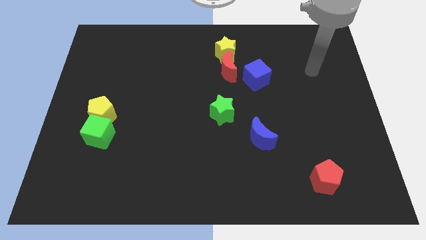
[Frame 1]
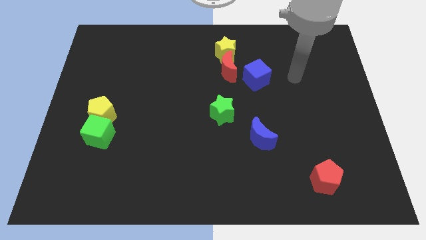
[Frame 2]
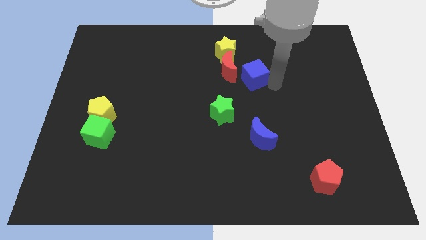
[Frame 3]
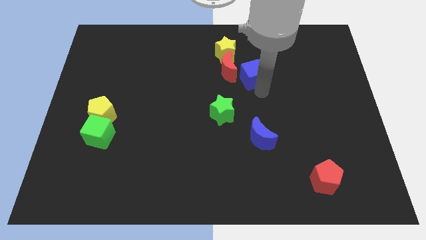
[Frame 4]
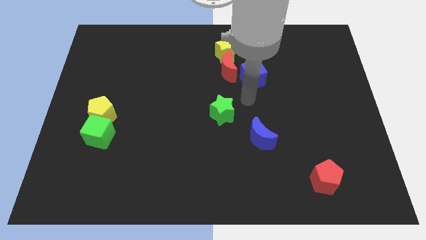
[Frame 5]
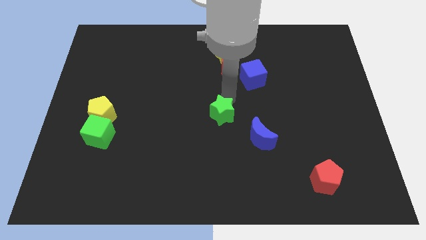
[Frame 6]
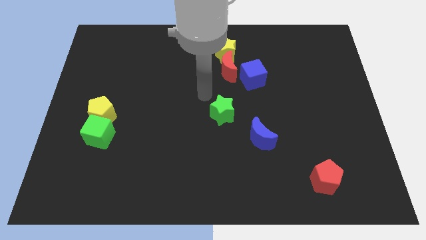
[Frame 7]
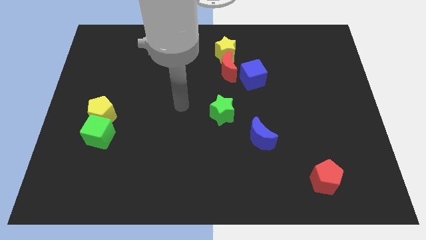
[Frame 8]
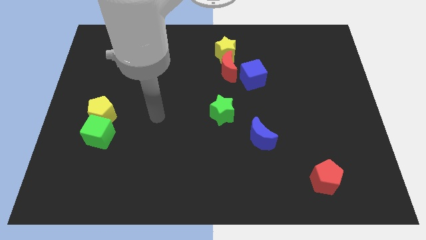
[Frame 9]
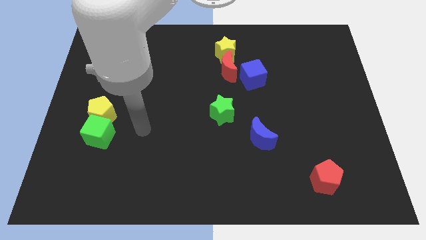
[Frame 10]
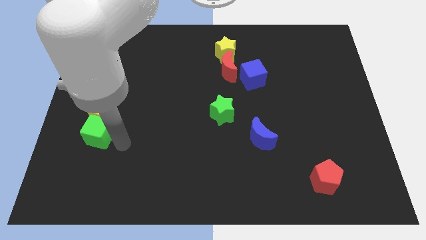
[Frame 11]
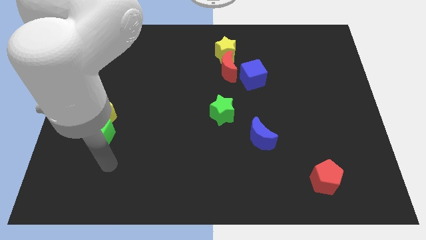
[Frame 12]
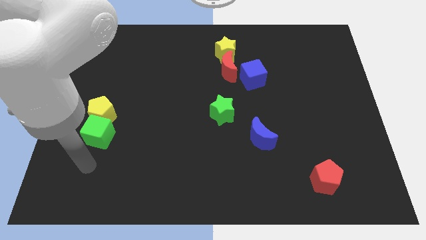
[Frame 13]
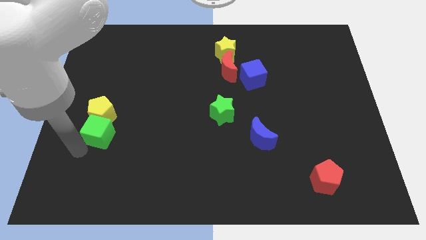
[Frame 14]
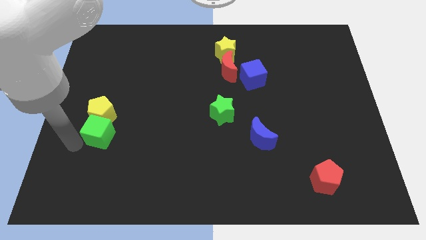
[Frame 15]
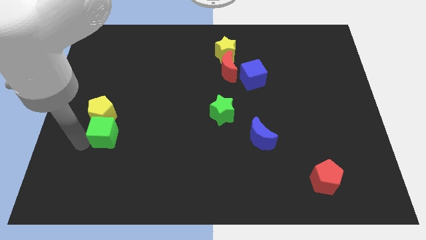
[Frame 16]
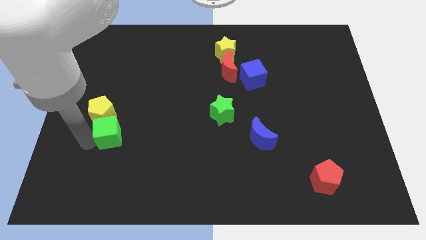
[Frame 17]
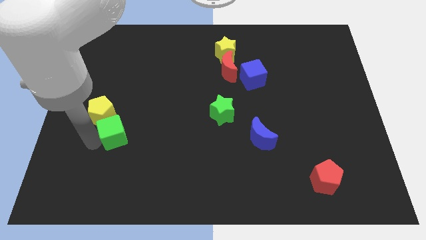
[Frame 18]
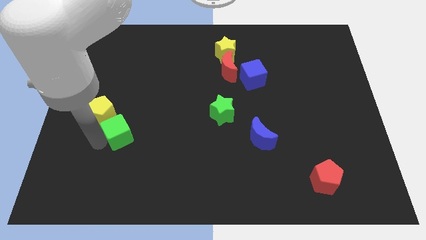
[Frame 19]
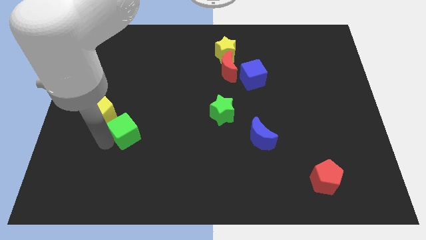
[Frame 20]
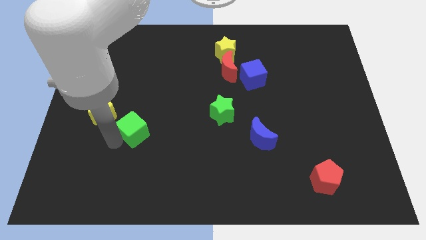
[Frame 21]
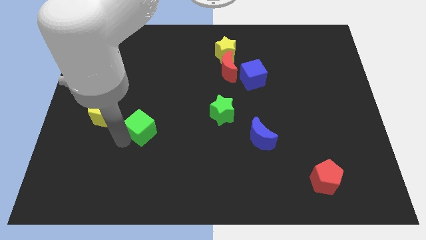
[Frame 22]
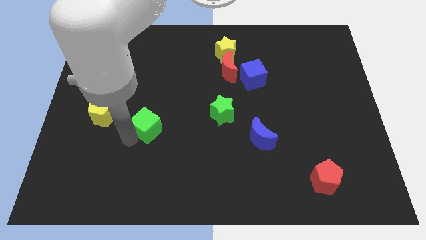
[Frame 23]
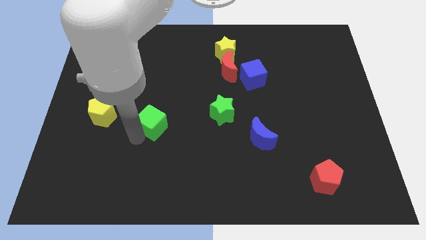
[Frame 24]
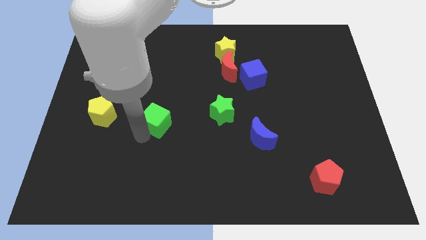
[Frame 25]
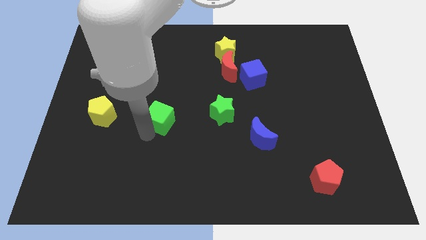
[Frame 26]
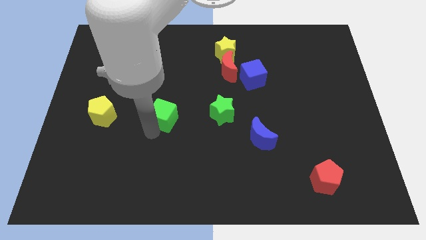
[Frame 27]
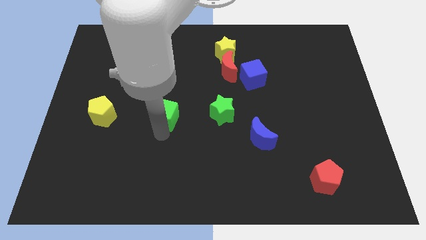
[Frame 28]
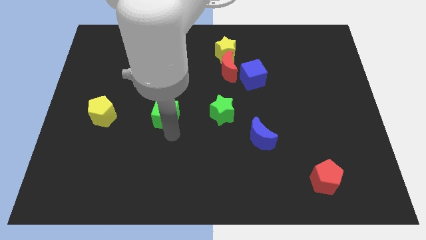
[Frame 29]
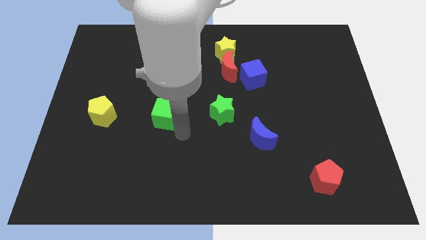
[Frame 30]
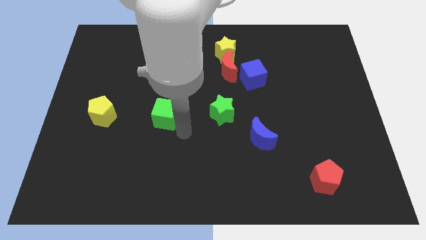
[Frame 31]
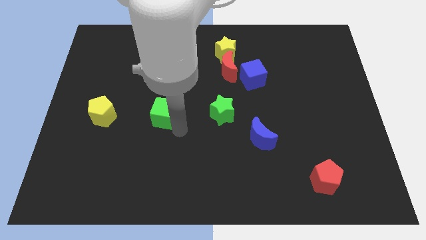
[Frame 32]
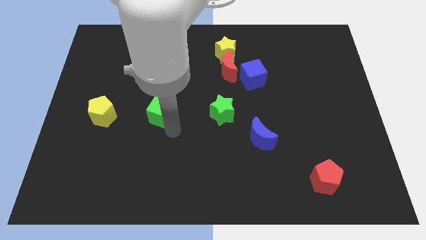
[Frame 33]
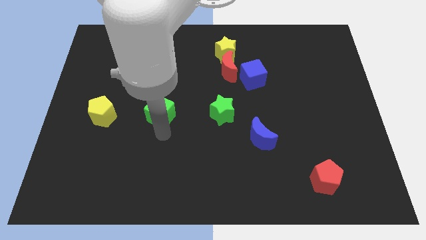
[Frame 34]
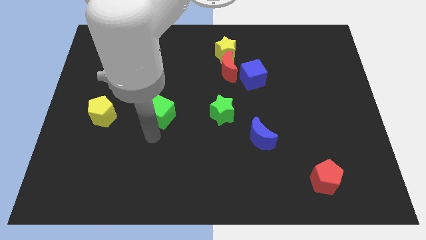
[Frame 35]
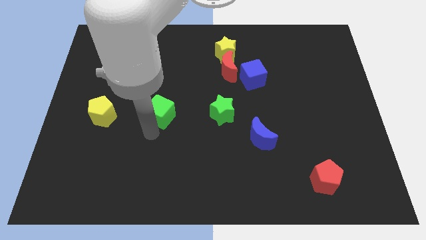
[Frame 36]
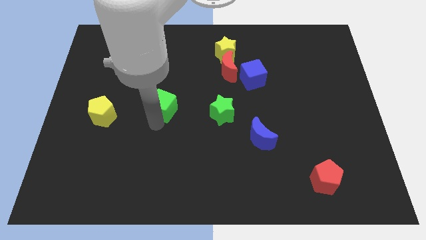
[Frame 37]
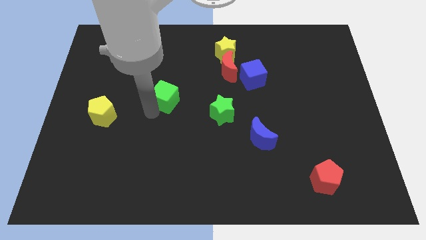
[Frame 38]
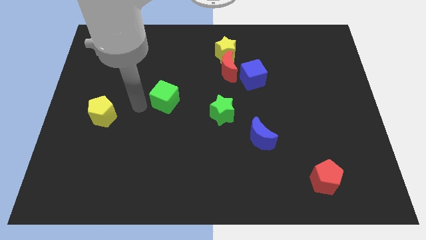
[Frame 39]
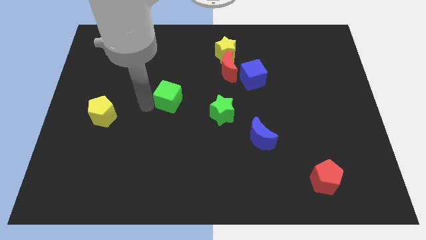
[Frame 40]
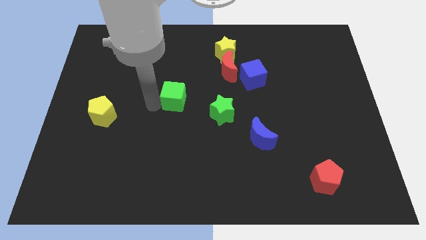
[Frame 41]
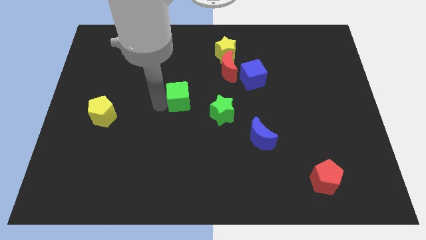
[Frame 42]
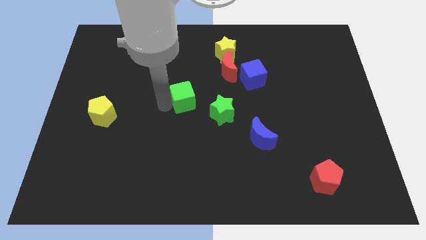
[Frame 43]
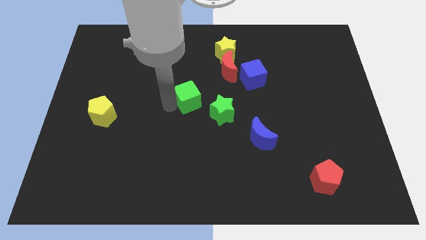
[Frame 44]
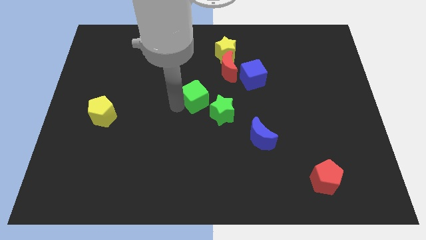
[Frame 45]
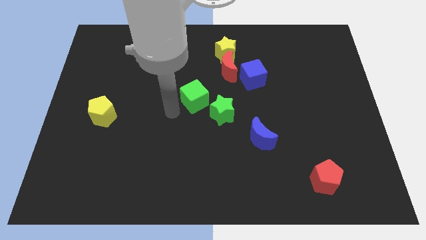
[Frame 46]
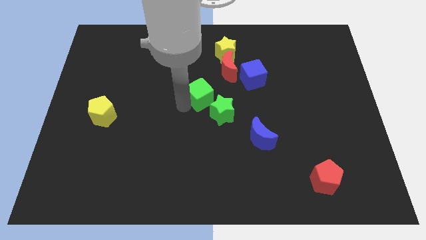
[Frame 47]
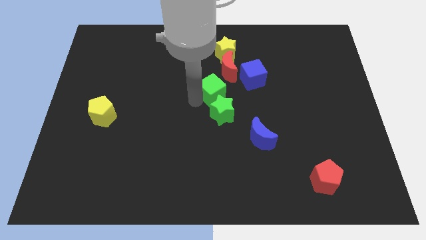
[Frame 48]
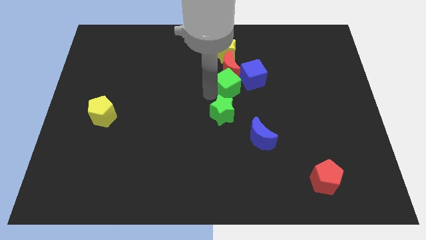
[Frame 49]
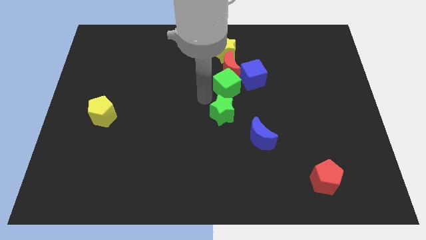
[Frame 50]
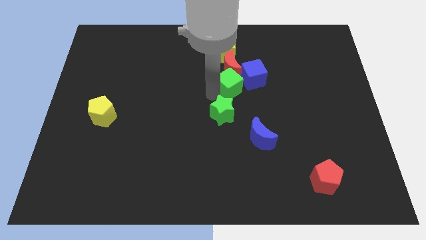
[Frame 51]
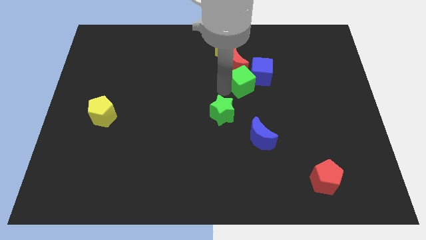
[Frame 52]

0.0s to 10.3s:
slide the green cube close to the blue cube

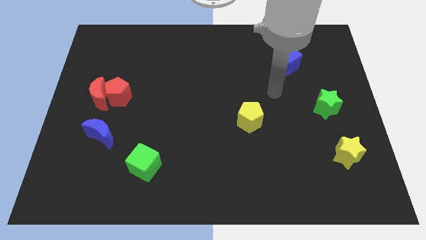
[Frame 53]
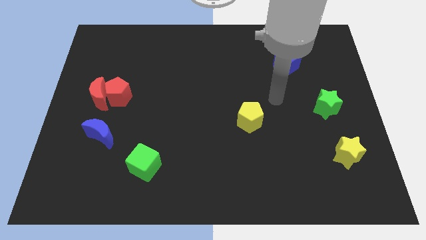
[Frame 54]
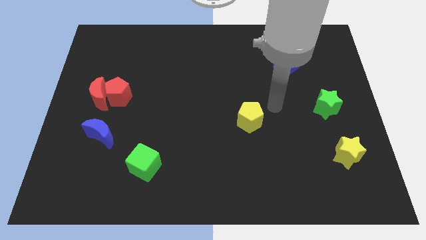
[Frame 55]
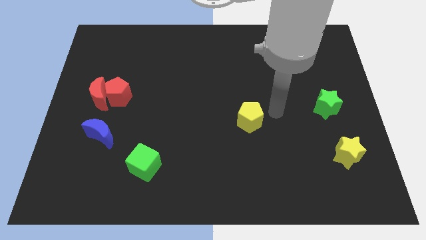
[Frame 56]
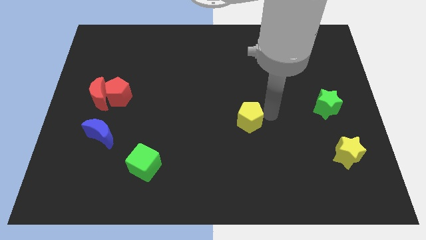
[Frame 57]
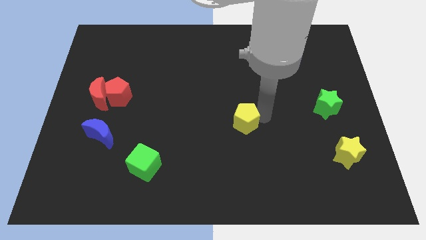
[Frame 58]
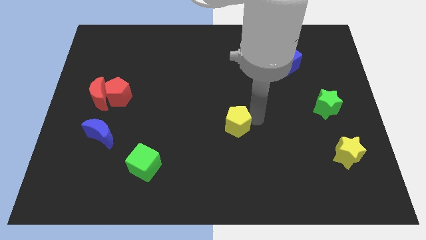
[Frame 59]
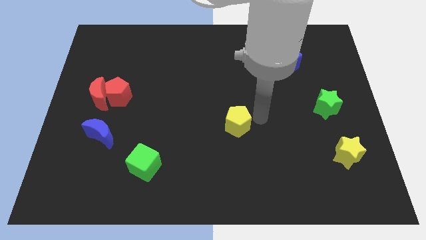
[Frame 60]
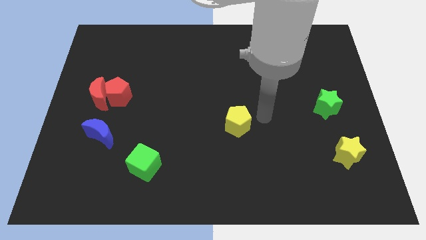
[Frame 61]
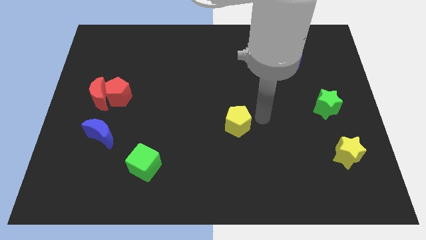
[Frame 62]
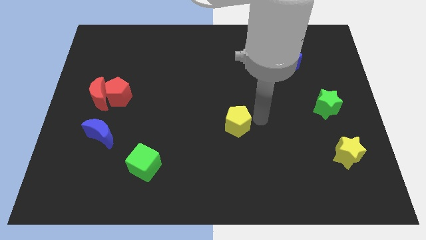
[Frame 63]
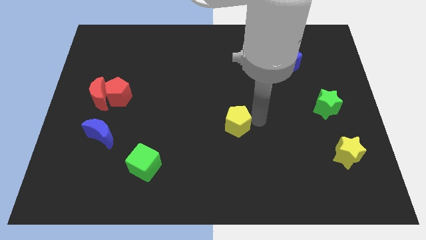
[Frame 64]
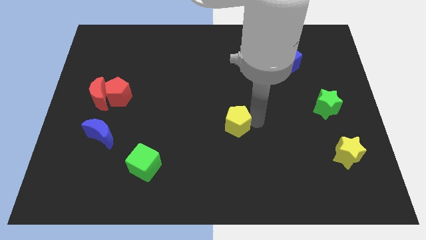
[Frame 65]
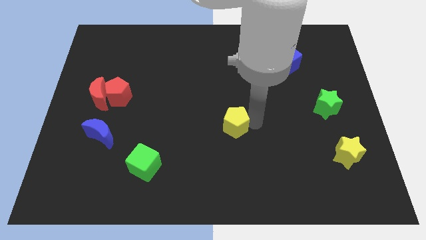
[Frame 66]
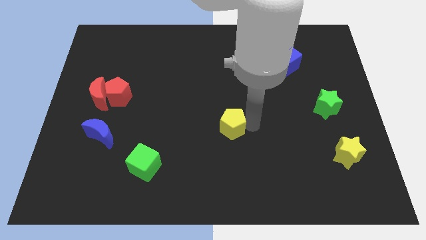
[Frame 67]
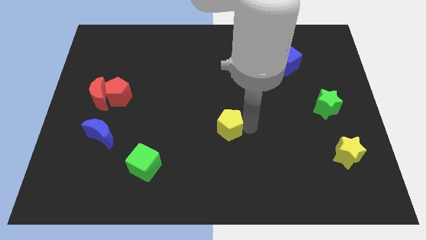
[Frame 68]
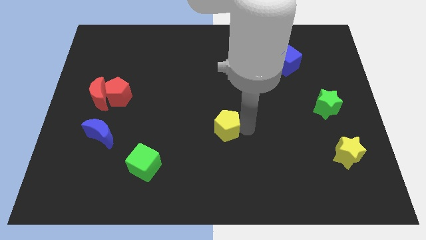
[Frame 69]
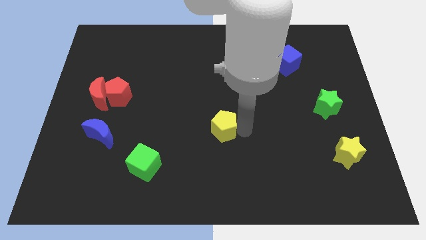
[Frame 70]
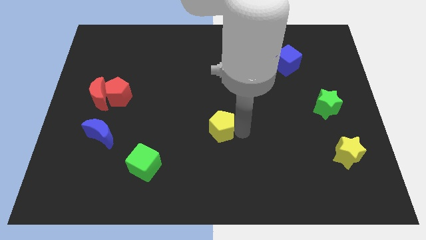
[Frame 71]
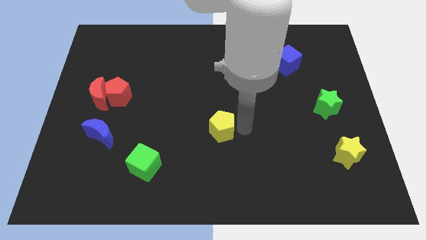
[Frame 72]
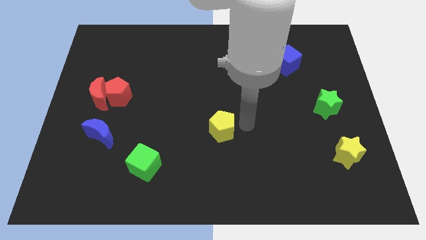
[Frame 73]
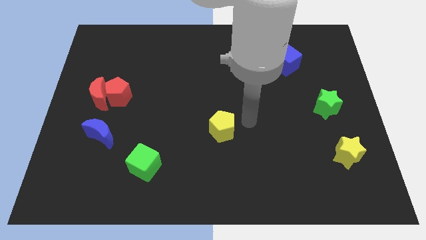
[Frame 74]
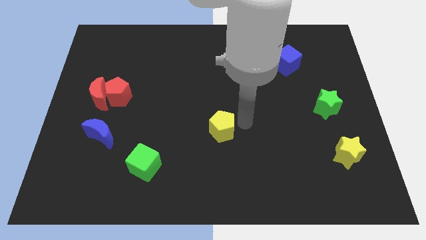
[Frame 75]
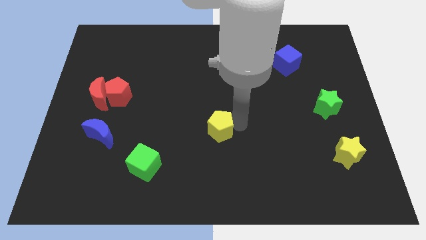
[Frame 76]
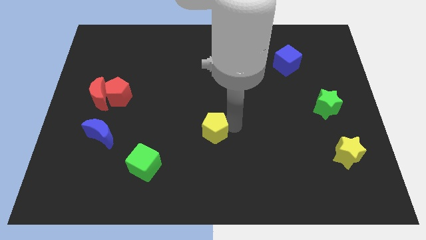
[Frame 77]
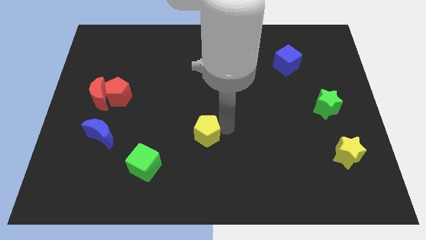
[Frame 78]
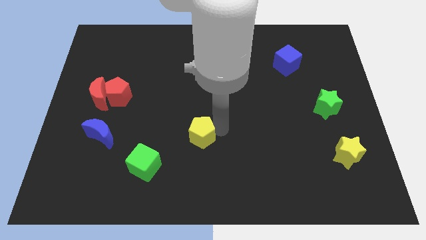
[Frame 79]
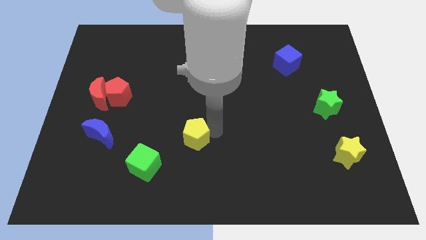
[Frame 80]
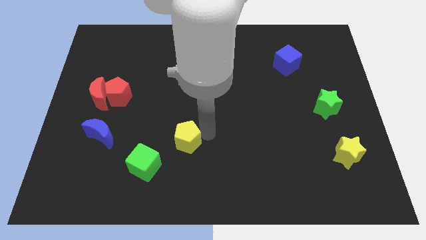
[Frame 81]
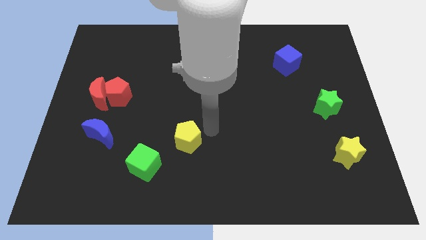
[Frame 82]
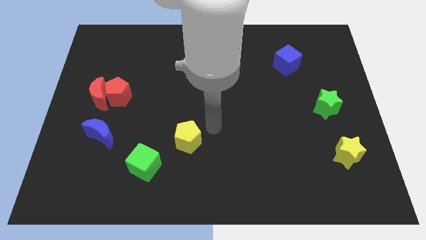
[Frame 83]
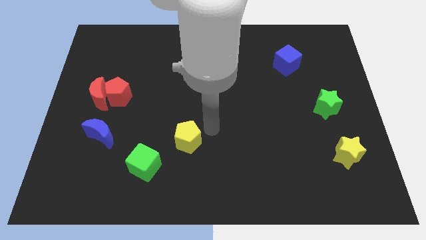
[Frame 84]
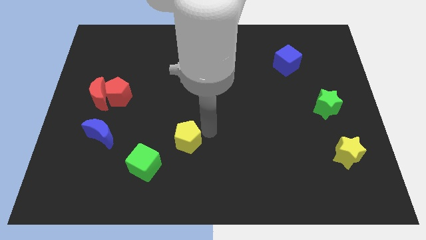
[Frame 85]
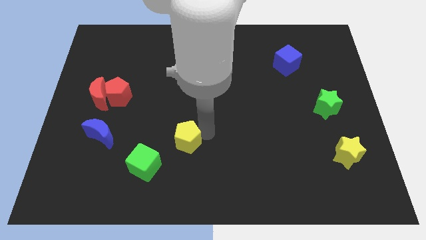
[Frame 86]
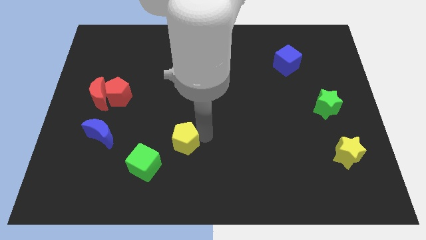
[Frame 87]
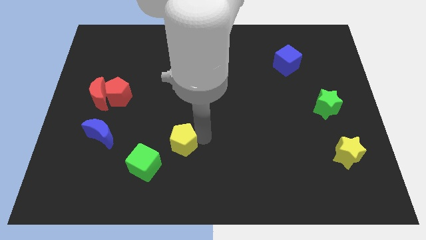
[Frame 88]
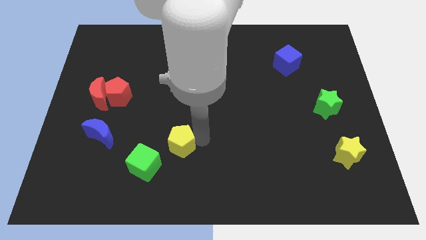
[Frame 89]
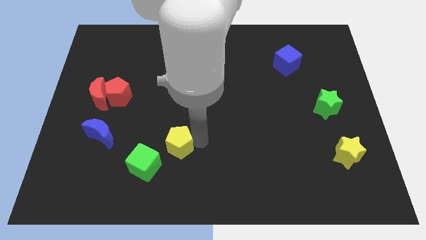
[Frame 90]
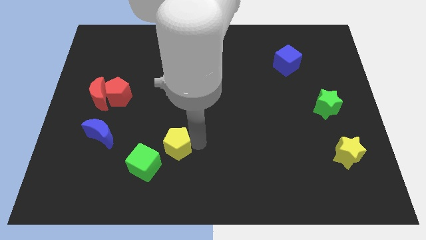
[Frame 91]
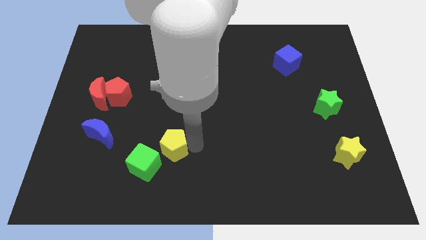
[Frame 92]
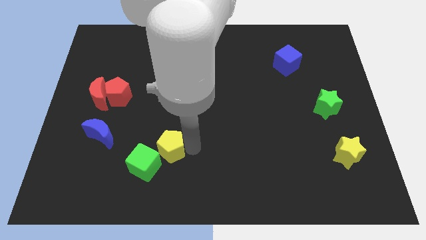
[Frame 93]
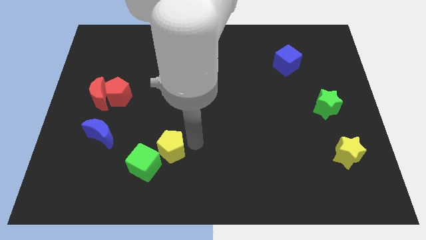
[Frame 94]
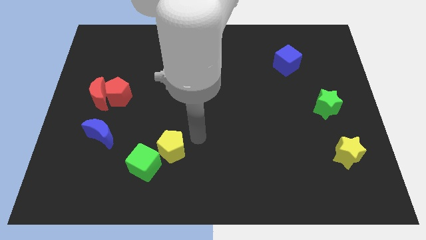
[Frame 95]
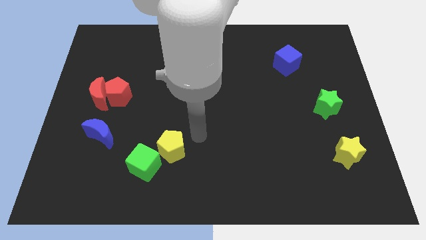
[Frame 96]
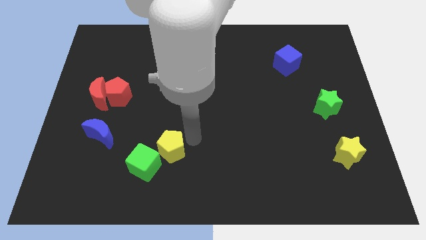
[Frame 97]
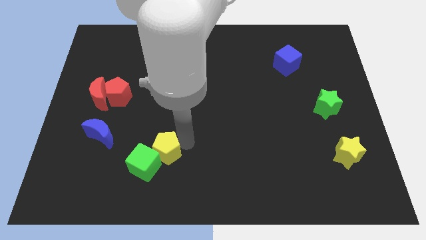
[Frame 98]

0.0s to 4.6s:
push the yellow pentagon towards the green cube
